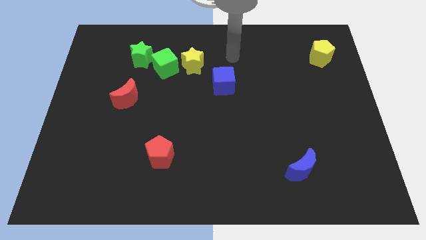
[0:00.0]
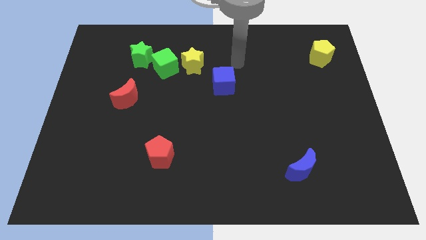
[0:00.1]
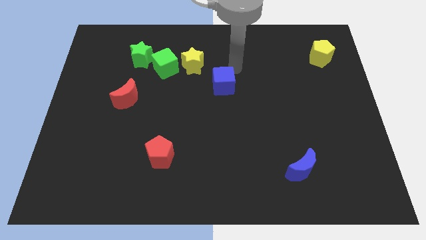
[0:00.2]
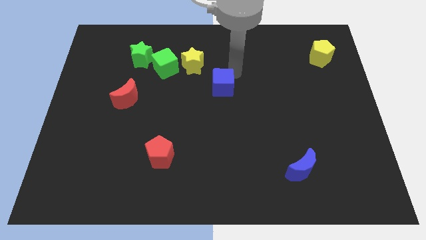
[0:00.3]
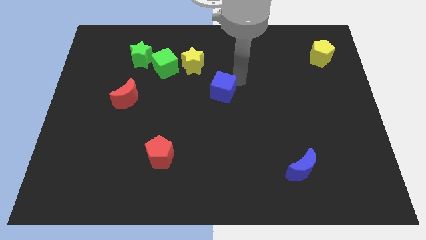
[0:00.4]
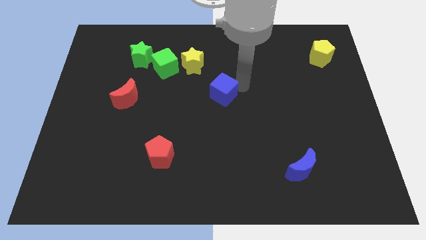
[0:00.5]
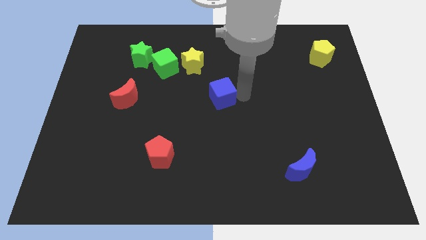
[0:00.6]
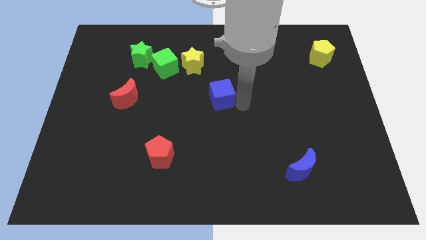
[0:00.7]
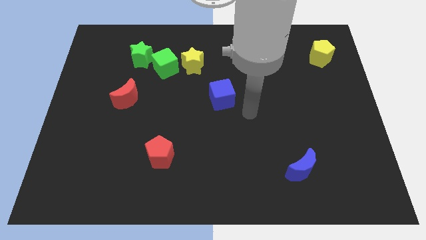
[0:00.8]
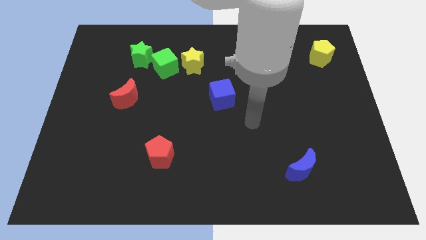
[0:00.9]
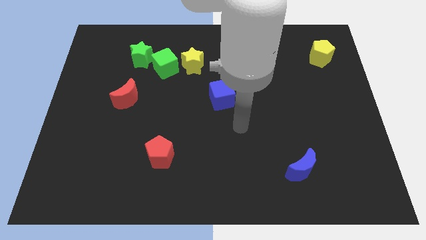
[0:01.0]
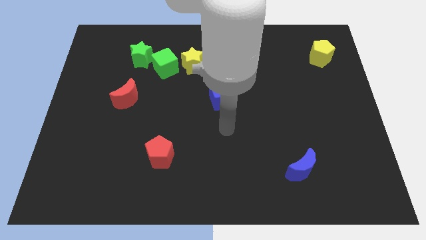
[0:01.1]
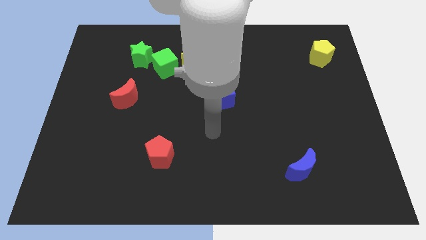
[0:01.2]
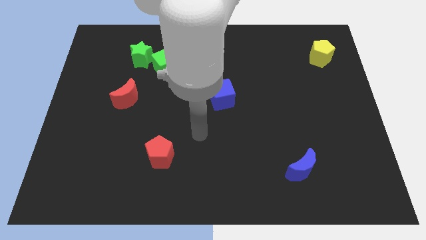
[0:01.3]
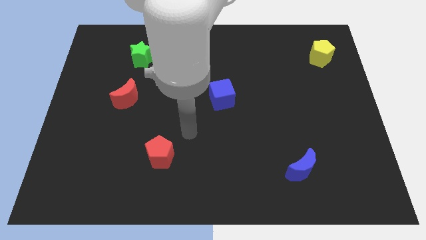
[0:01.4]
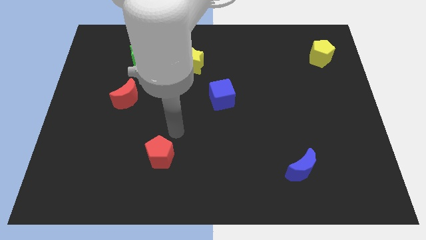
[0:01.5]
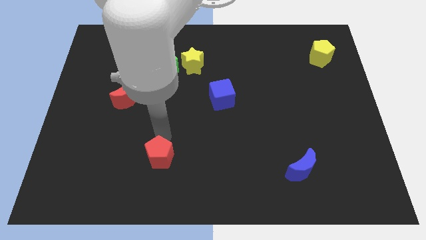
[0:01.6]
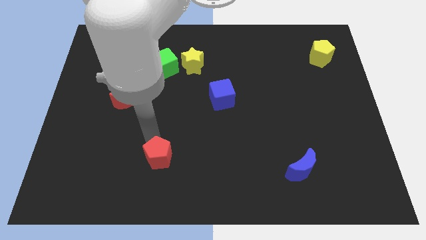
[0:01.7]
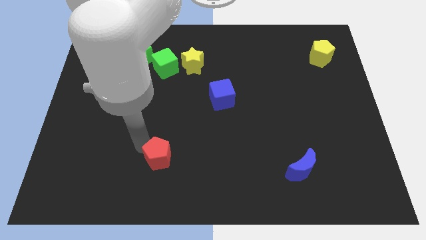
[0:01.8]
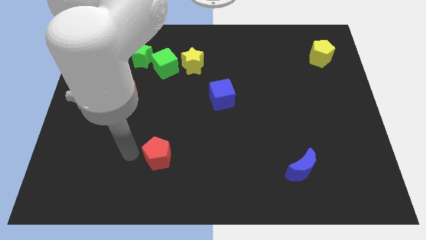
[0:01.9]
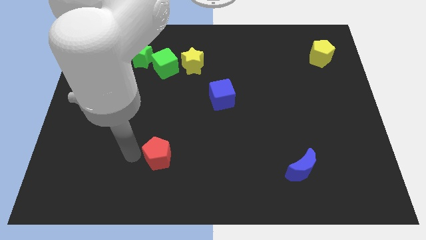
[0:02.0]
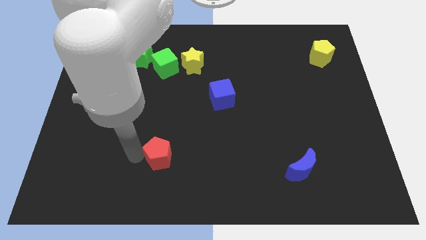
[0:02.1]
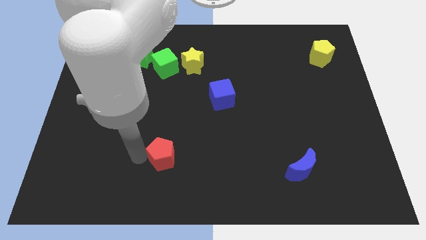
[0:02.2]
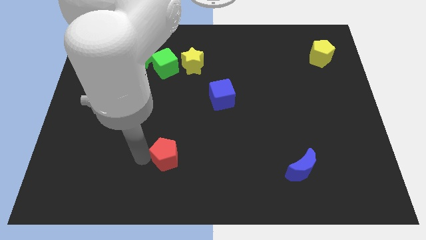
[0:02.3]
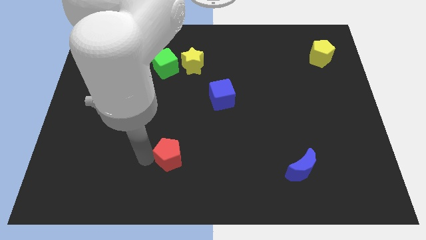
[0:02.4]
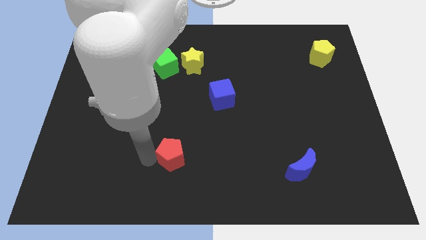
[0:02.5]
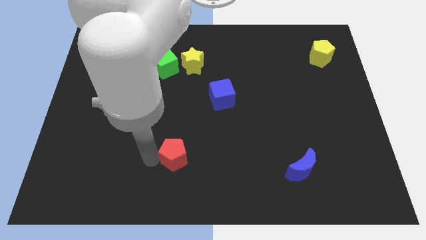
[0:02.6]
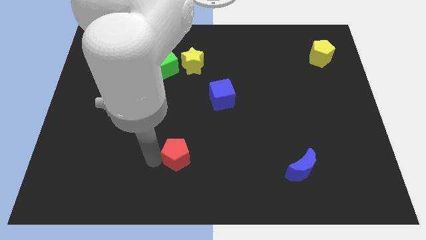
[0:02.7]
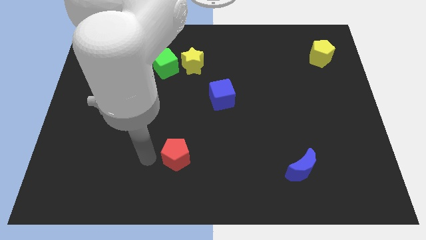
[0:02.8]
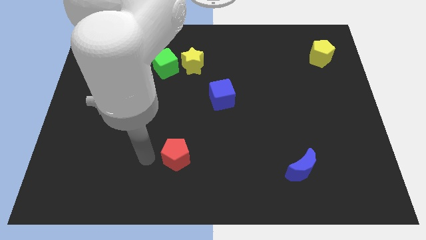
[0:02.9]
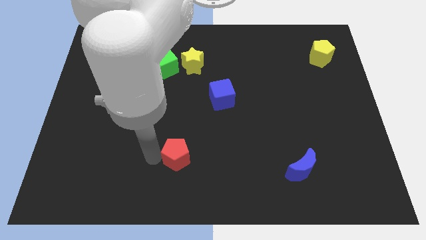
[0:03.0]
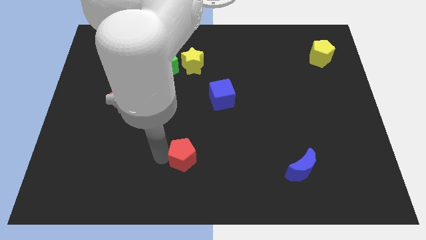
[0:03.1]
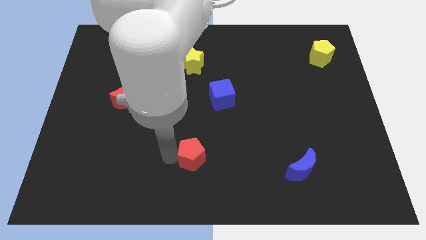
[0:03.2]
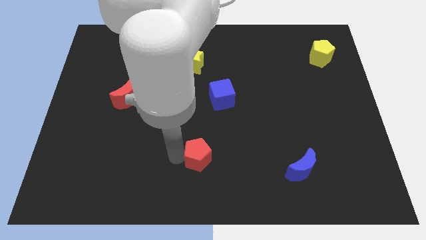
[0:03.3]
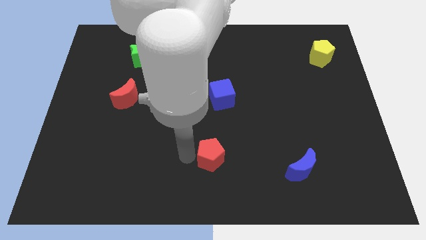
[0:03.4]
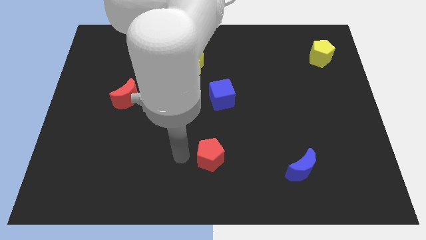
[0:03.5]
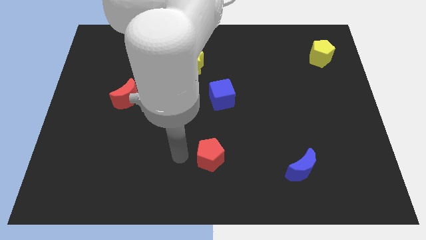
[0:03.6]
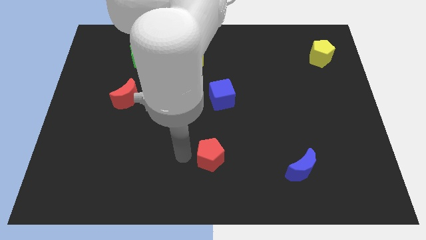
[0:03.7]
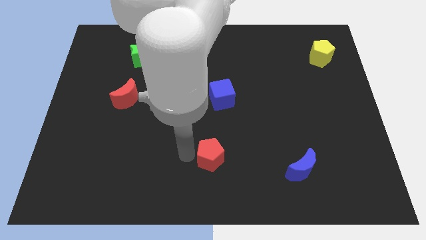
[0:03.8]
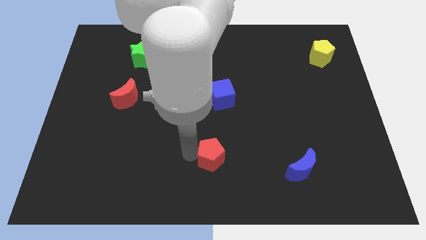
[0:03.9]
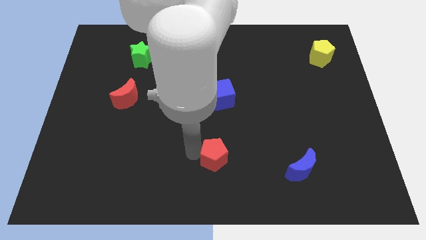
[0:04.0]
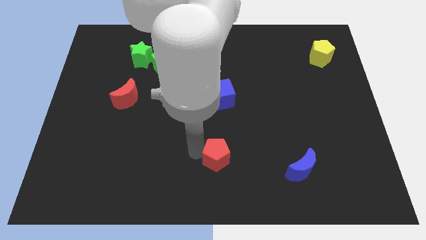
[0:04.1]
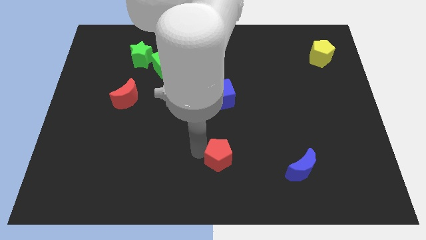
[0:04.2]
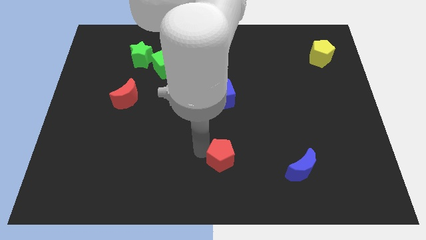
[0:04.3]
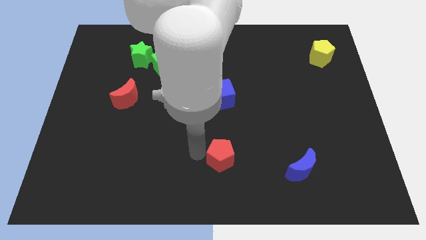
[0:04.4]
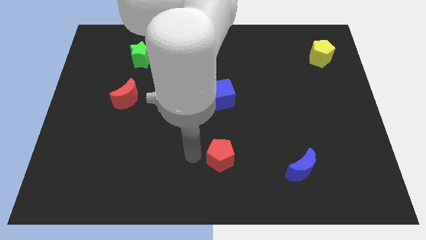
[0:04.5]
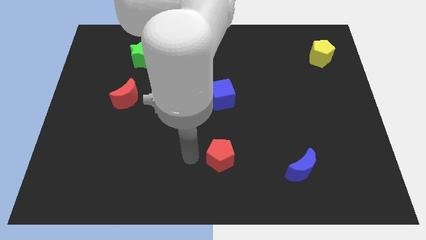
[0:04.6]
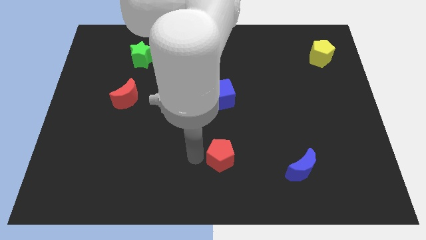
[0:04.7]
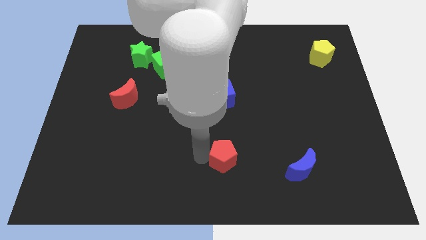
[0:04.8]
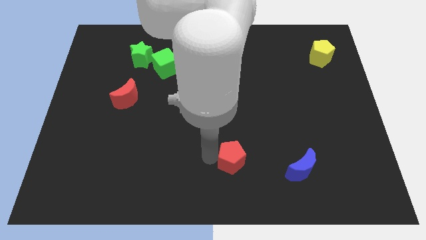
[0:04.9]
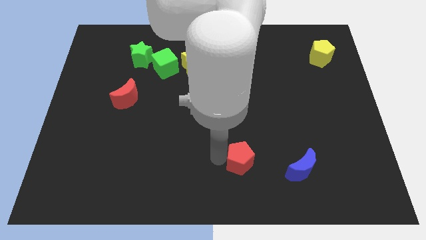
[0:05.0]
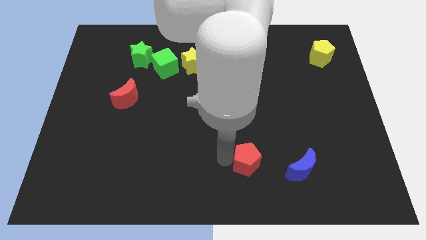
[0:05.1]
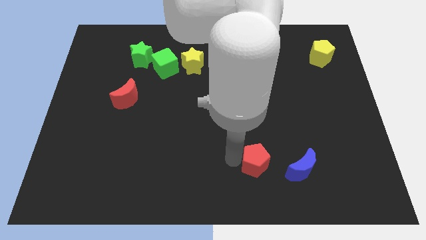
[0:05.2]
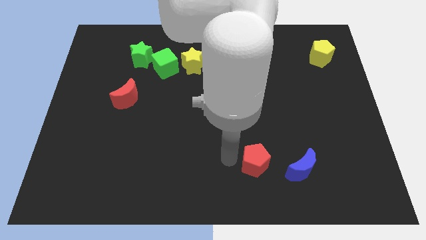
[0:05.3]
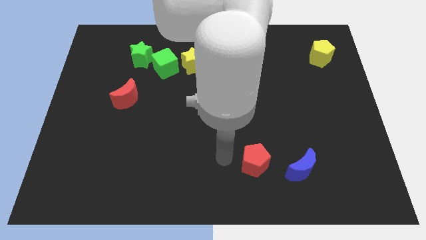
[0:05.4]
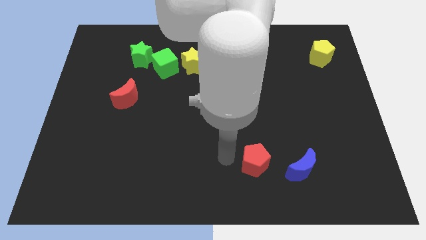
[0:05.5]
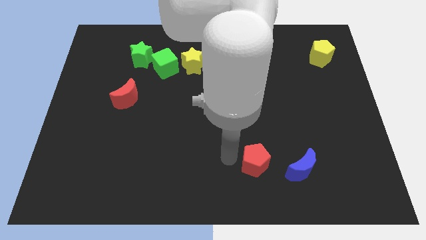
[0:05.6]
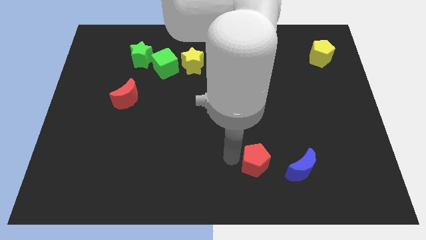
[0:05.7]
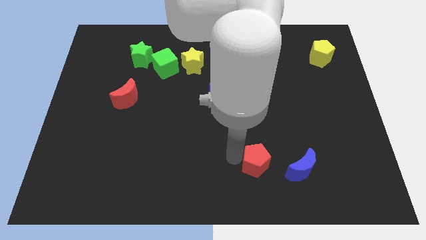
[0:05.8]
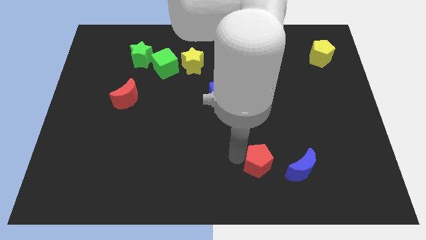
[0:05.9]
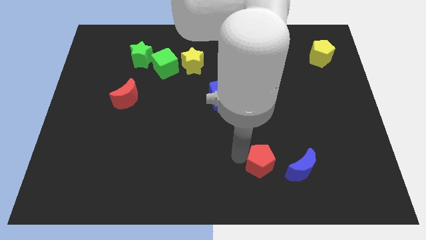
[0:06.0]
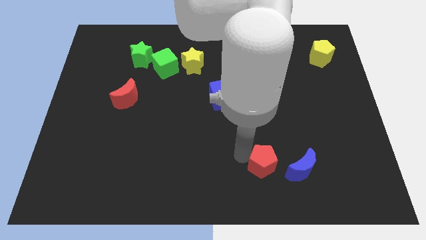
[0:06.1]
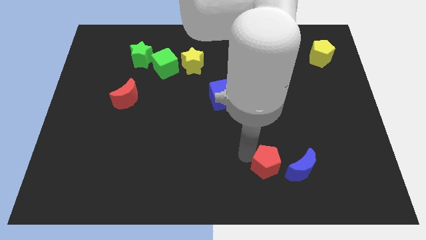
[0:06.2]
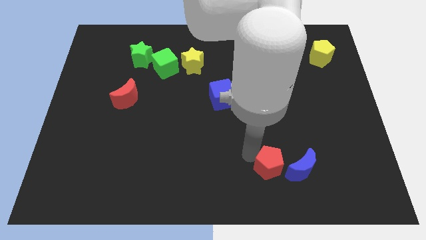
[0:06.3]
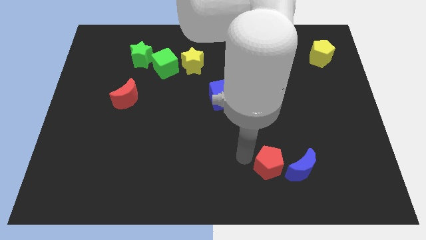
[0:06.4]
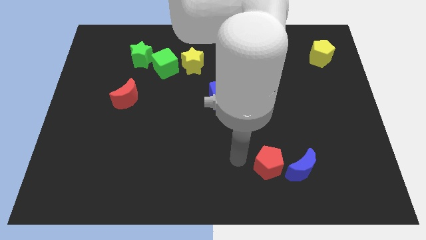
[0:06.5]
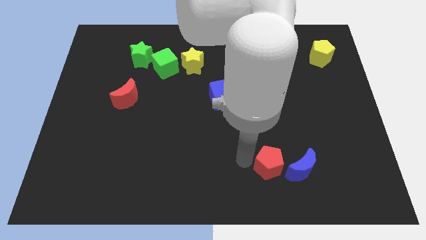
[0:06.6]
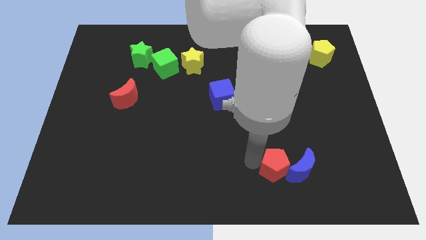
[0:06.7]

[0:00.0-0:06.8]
slide the red pentagon towards the blue moon
